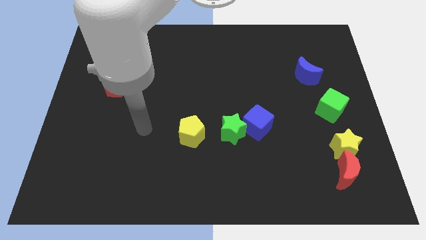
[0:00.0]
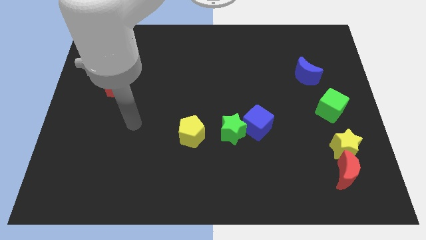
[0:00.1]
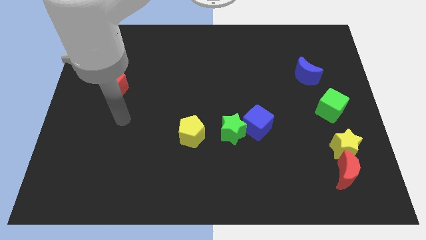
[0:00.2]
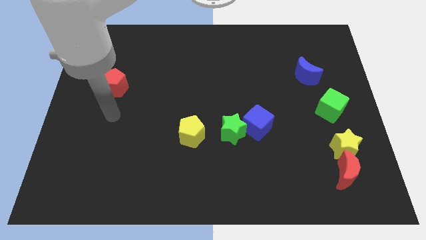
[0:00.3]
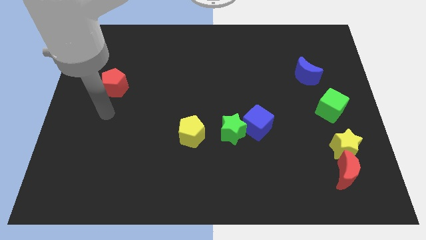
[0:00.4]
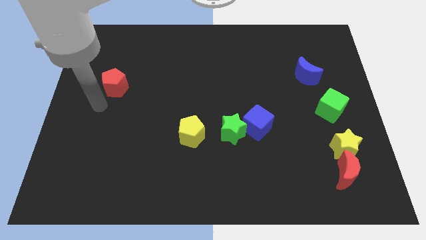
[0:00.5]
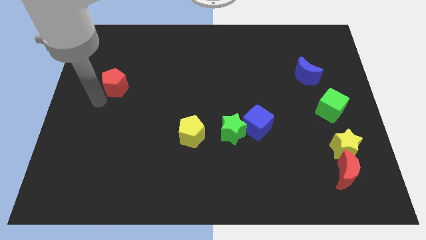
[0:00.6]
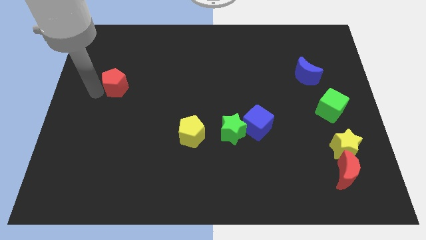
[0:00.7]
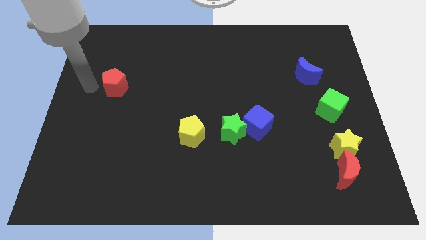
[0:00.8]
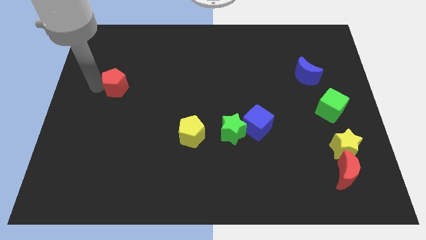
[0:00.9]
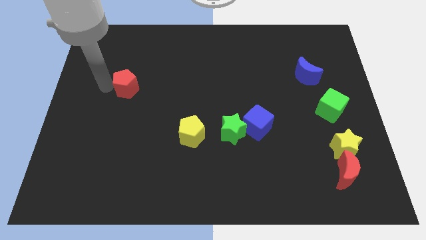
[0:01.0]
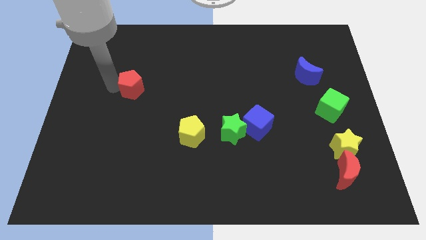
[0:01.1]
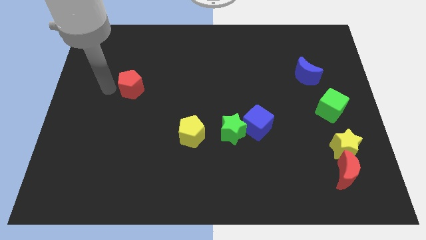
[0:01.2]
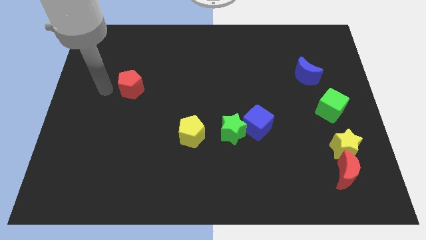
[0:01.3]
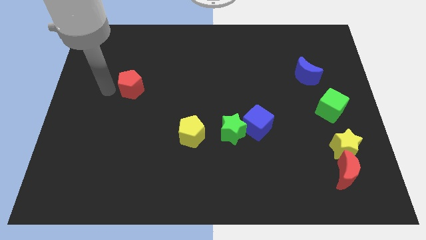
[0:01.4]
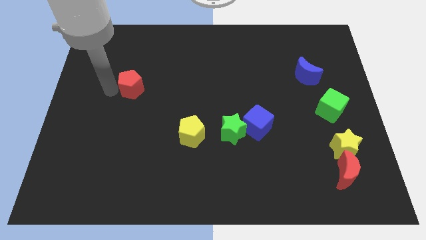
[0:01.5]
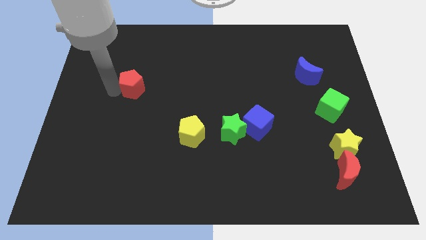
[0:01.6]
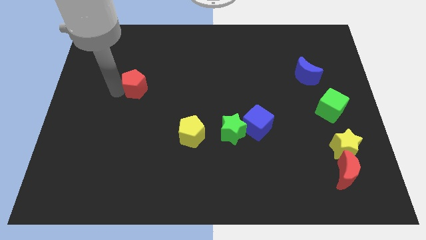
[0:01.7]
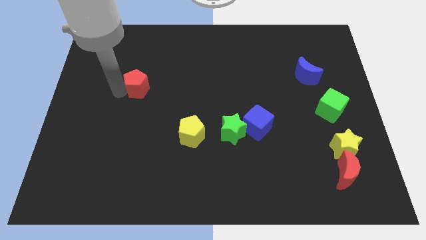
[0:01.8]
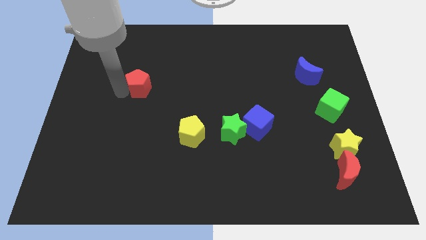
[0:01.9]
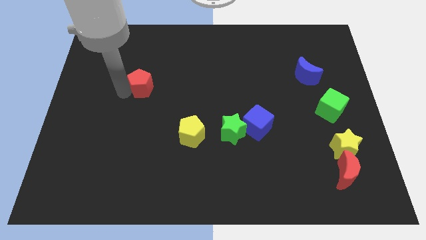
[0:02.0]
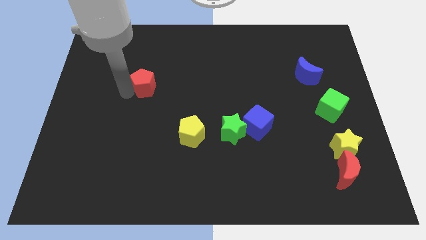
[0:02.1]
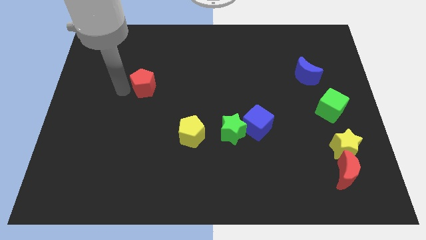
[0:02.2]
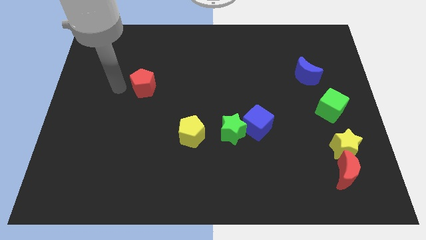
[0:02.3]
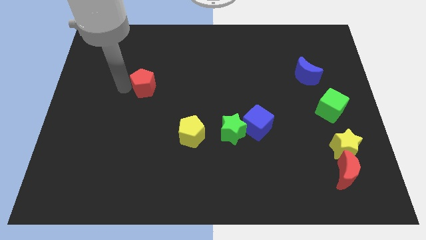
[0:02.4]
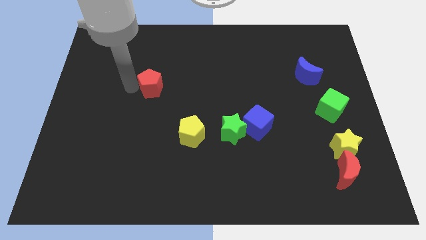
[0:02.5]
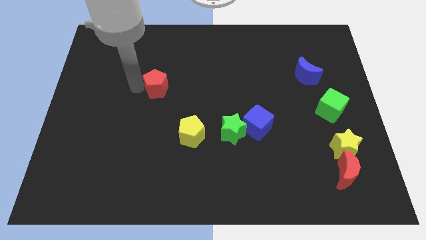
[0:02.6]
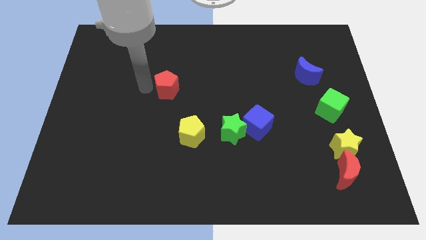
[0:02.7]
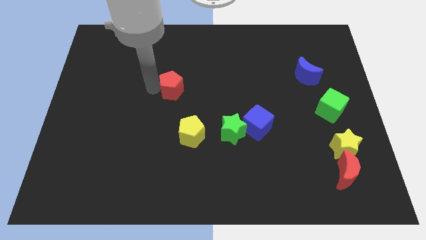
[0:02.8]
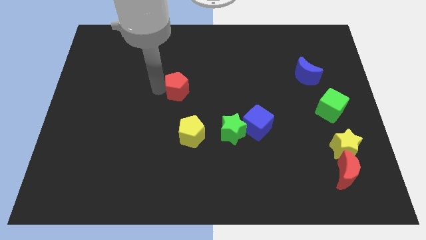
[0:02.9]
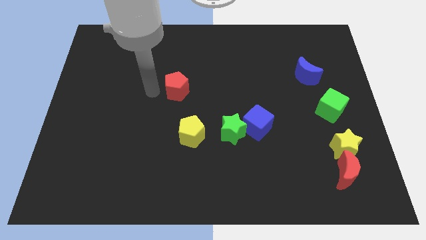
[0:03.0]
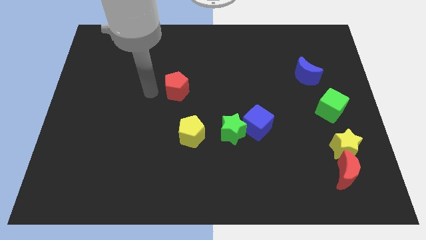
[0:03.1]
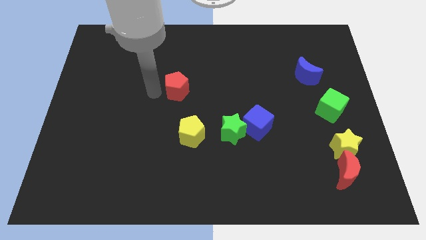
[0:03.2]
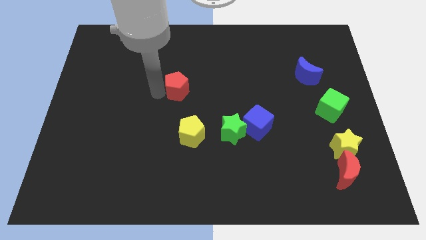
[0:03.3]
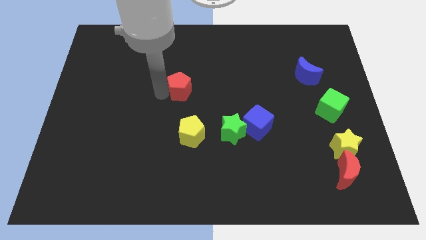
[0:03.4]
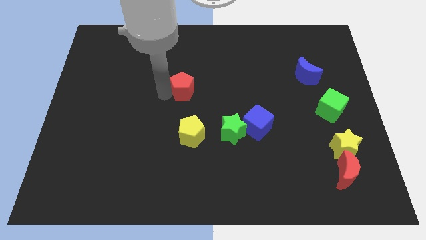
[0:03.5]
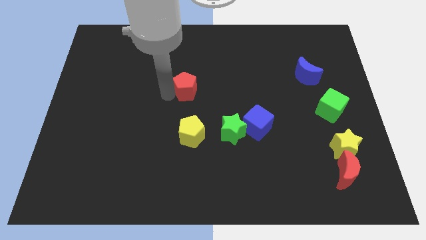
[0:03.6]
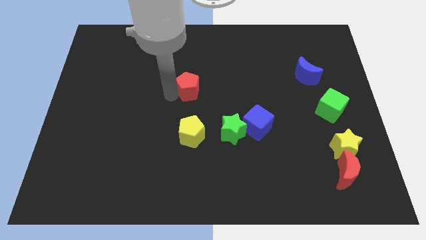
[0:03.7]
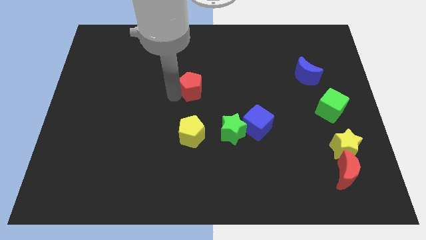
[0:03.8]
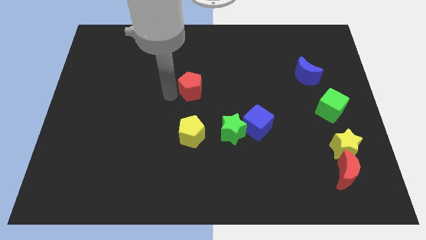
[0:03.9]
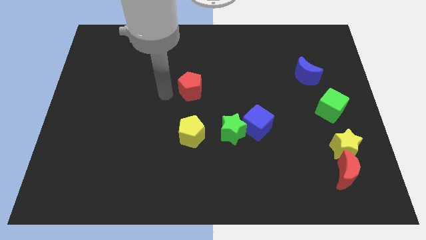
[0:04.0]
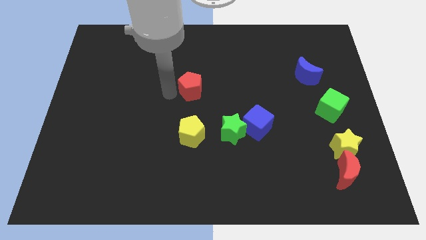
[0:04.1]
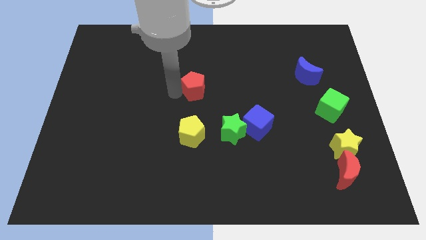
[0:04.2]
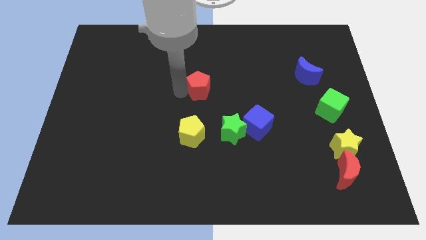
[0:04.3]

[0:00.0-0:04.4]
slide the red pentagon to the right

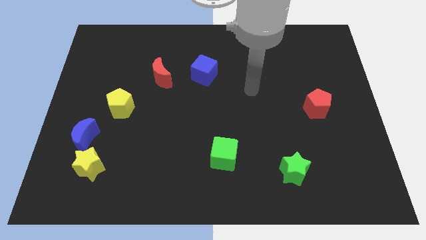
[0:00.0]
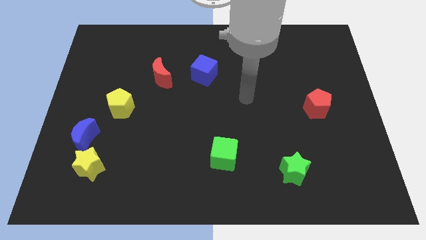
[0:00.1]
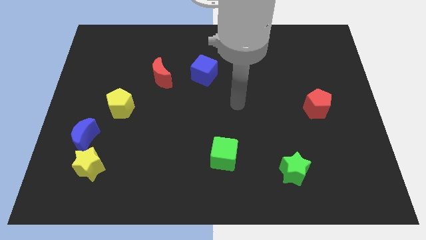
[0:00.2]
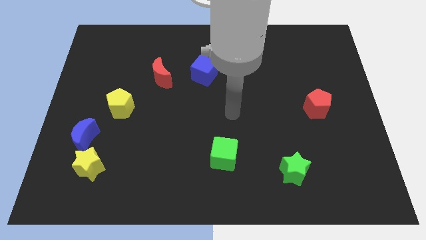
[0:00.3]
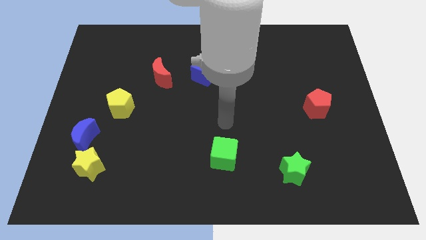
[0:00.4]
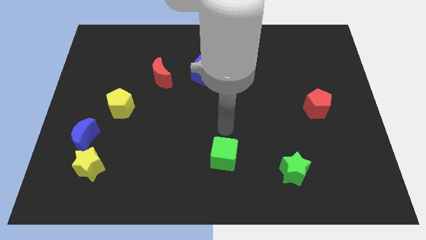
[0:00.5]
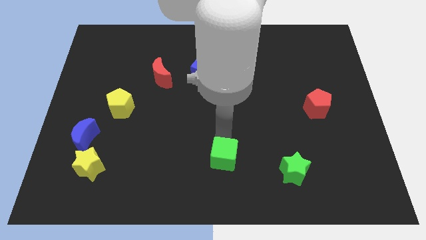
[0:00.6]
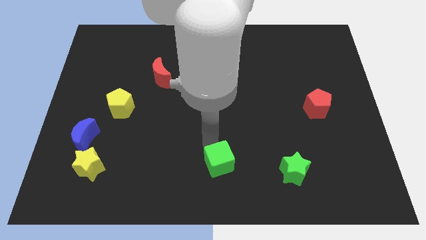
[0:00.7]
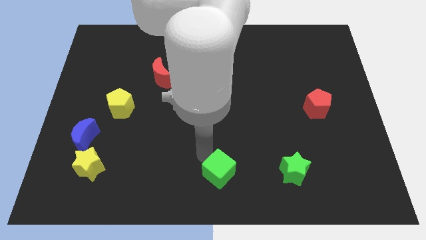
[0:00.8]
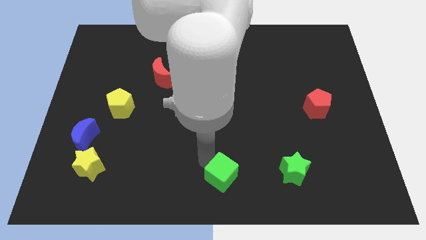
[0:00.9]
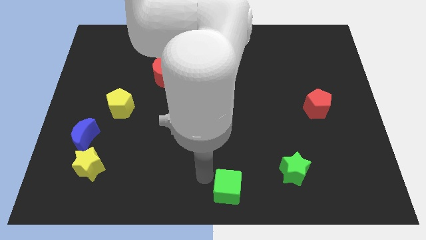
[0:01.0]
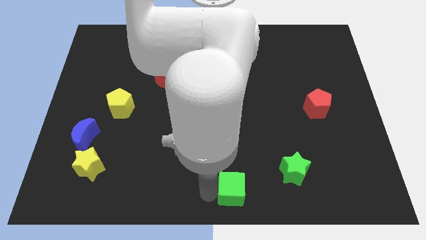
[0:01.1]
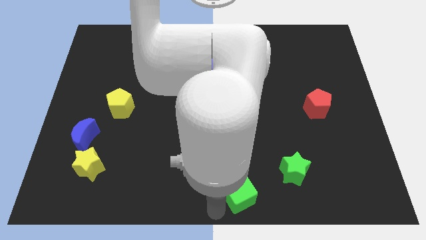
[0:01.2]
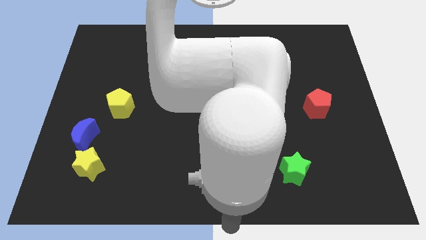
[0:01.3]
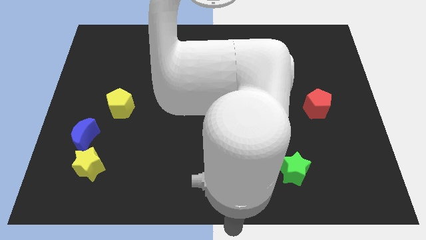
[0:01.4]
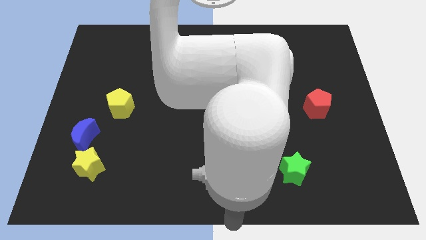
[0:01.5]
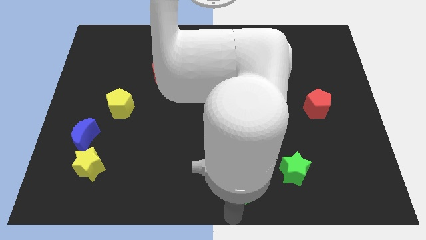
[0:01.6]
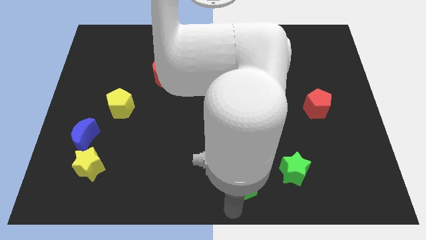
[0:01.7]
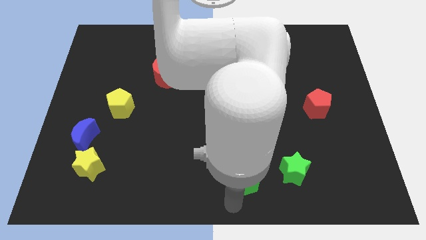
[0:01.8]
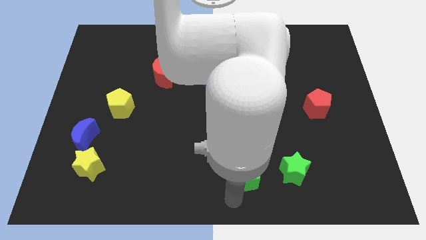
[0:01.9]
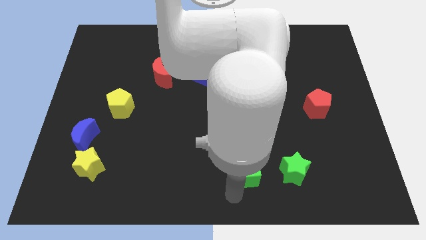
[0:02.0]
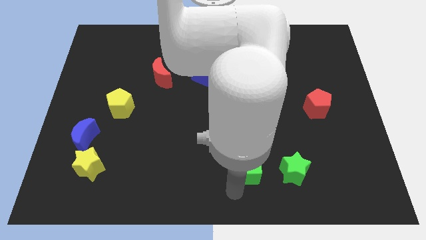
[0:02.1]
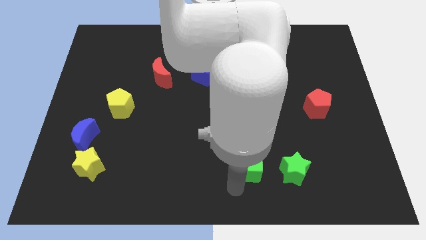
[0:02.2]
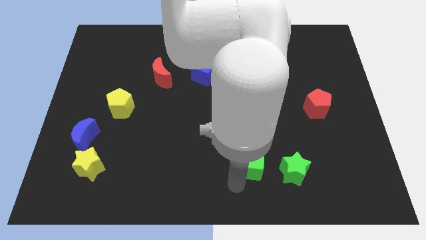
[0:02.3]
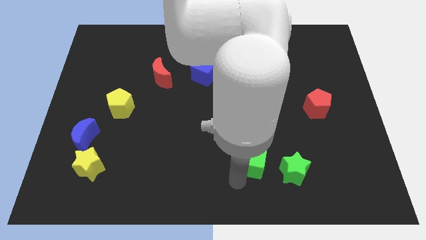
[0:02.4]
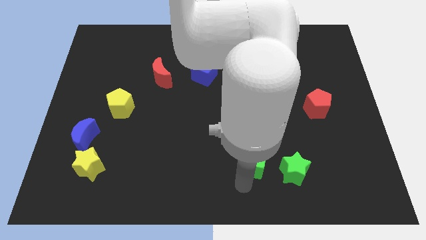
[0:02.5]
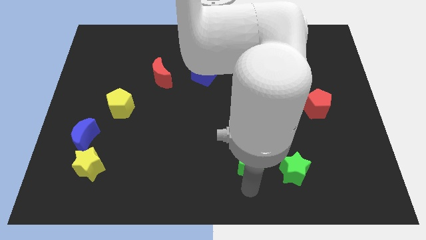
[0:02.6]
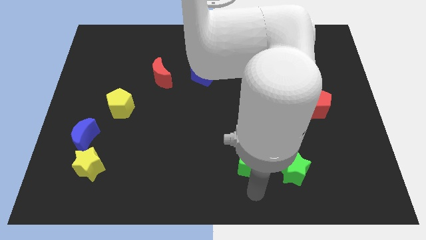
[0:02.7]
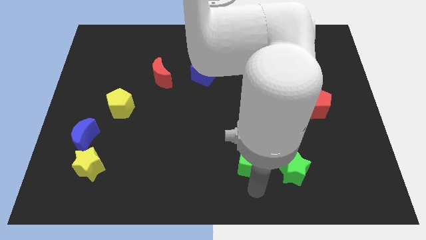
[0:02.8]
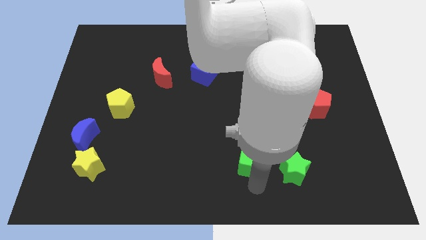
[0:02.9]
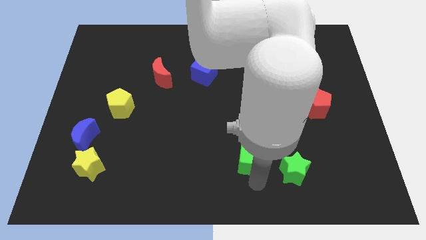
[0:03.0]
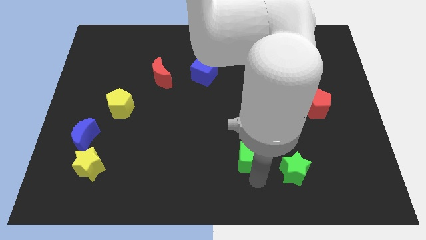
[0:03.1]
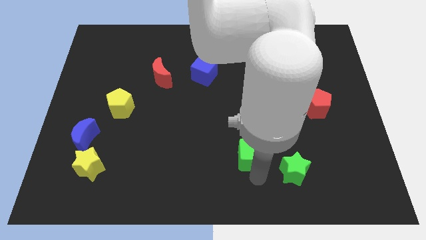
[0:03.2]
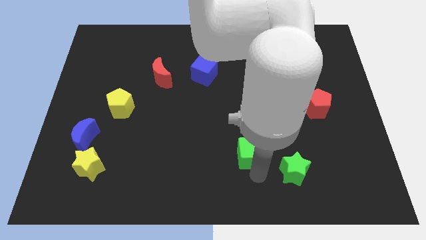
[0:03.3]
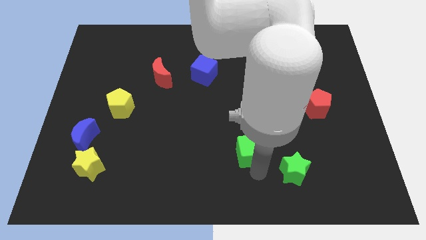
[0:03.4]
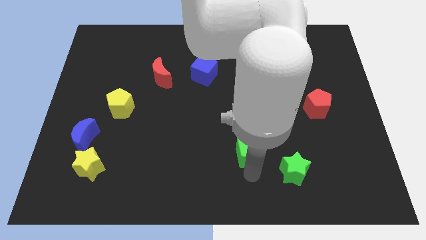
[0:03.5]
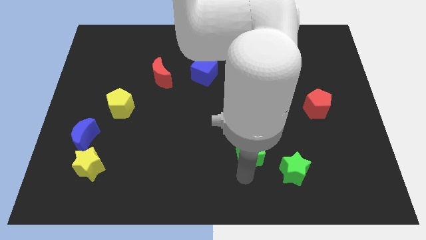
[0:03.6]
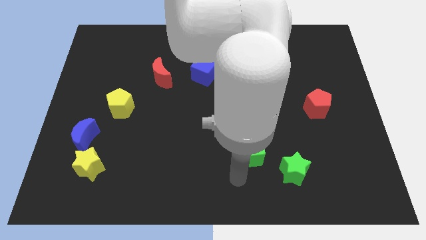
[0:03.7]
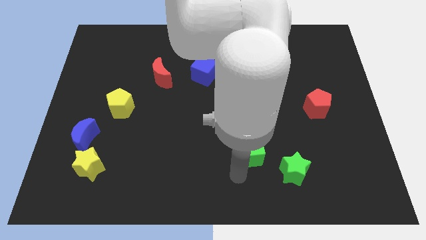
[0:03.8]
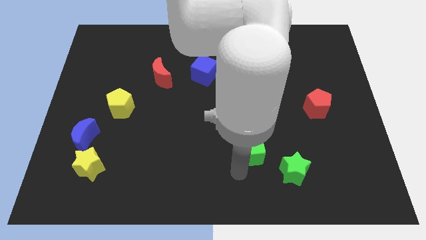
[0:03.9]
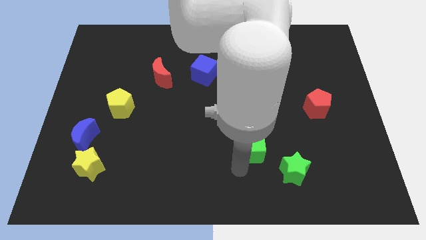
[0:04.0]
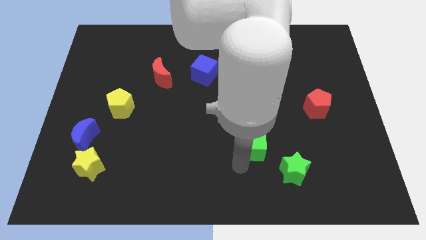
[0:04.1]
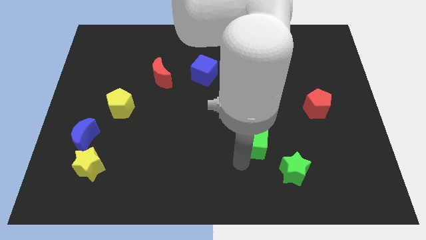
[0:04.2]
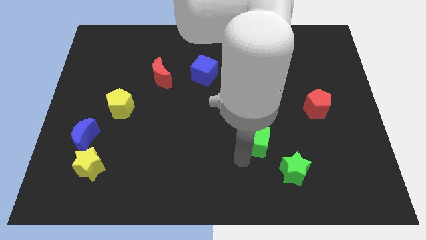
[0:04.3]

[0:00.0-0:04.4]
slide the green cube a little bit upwards and right
